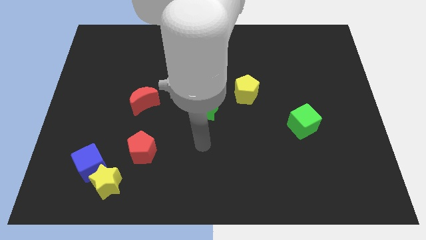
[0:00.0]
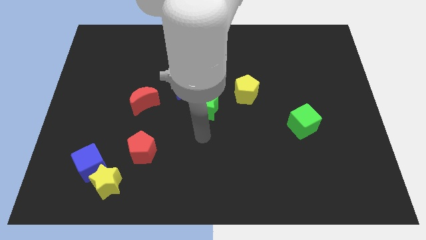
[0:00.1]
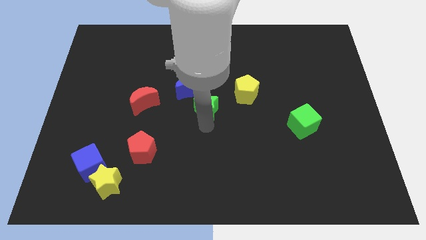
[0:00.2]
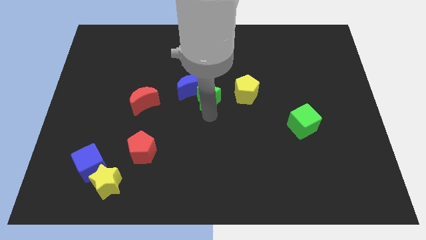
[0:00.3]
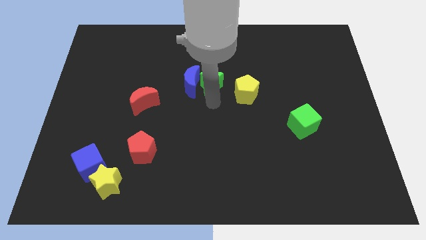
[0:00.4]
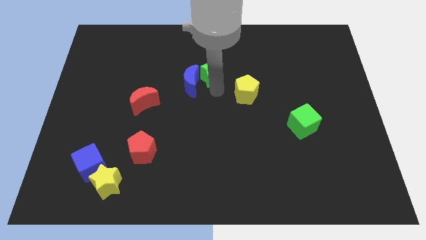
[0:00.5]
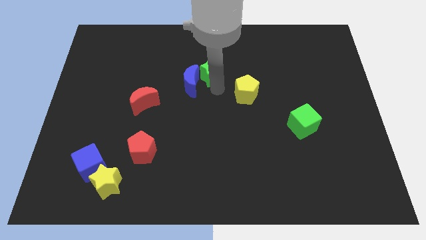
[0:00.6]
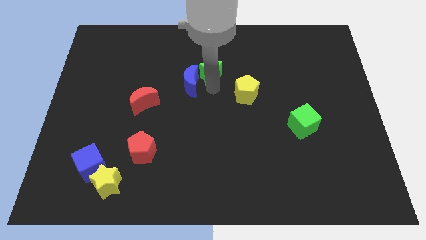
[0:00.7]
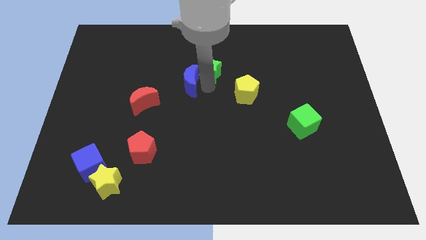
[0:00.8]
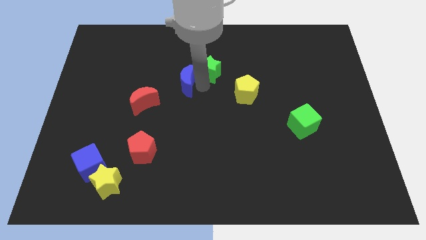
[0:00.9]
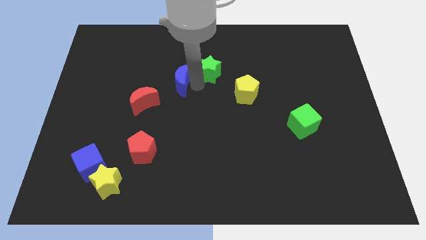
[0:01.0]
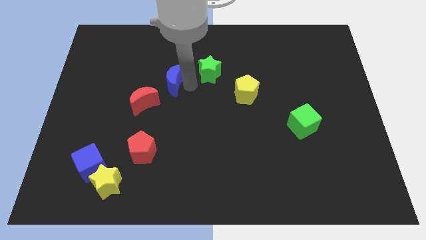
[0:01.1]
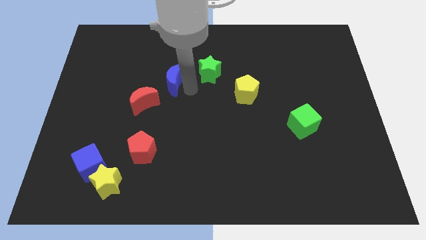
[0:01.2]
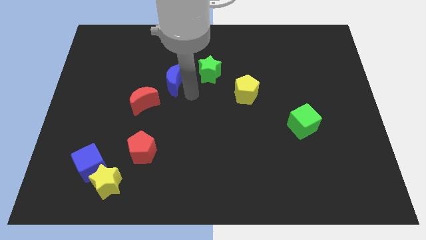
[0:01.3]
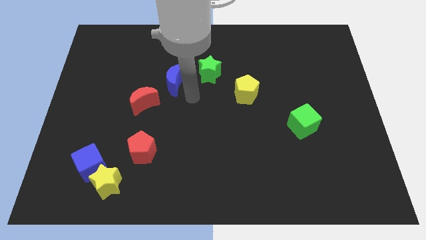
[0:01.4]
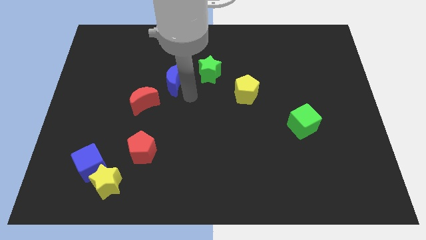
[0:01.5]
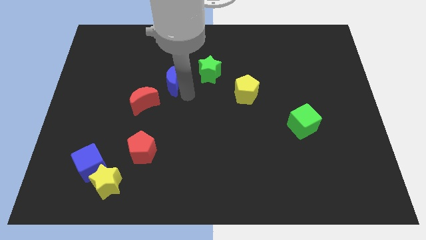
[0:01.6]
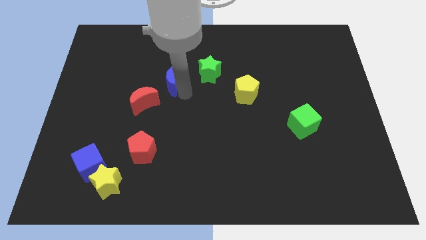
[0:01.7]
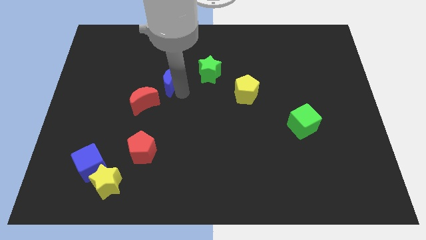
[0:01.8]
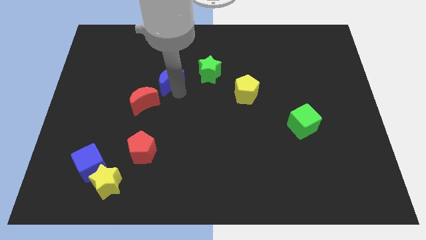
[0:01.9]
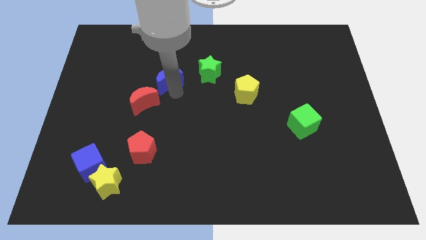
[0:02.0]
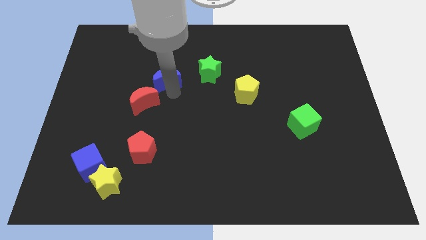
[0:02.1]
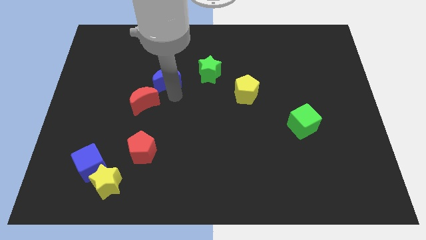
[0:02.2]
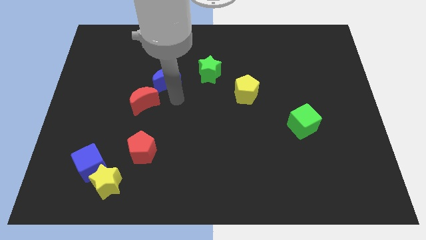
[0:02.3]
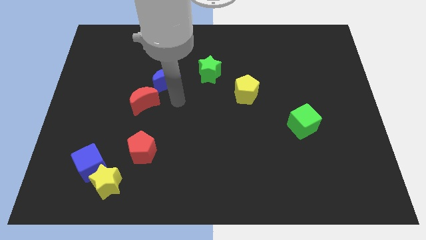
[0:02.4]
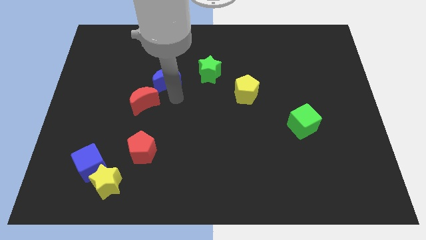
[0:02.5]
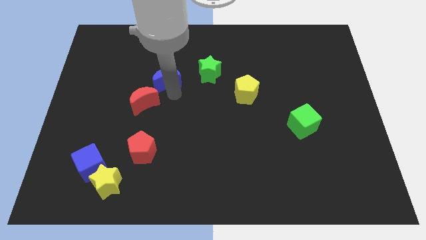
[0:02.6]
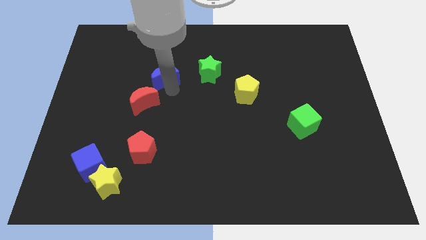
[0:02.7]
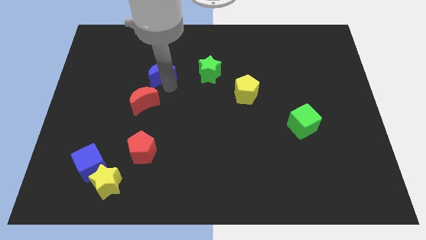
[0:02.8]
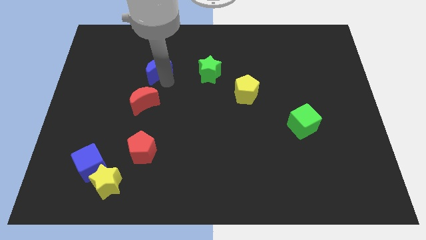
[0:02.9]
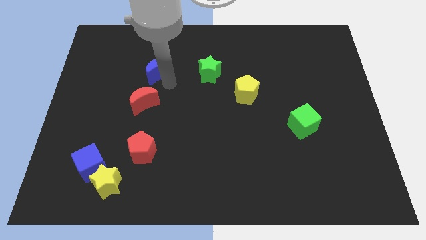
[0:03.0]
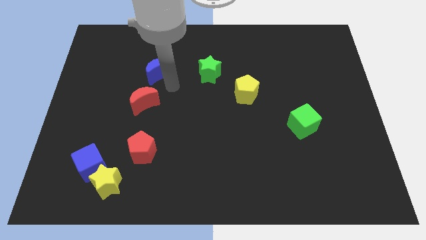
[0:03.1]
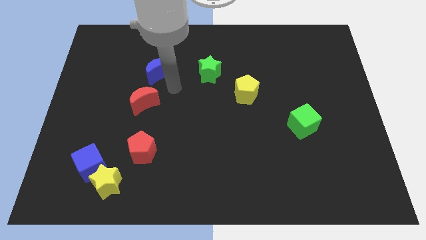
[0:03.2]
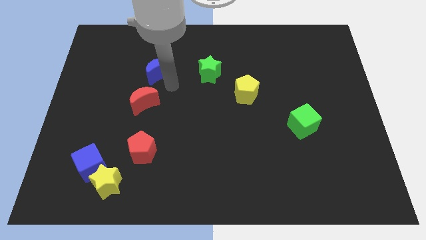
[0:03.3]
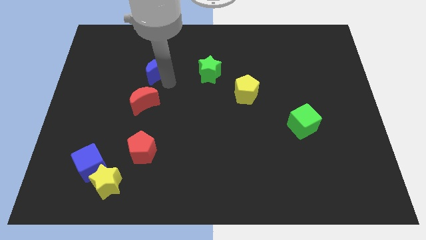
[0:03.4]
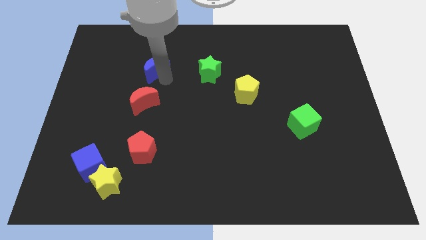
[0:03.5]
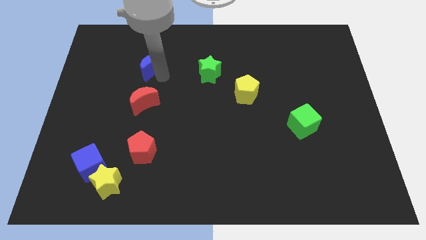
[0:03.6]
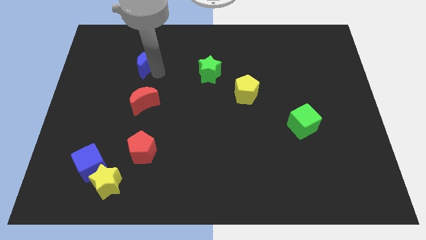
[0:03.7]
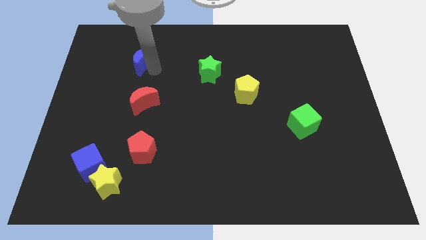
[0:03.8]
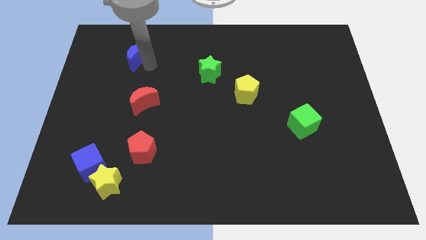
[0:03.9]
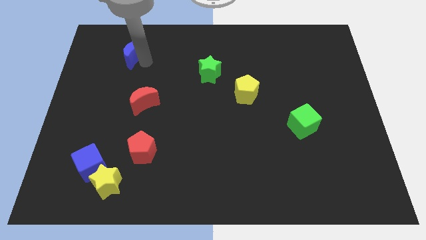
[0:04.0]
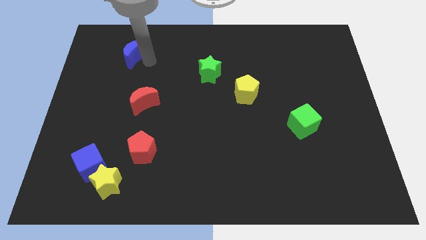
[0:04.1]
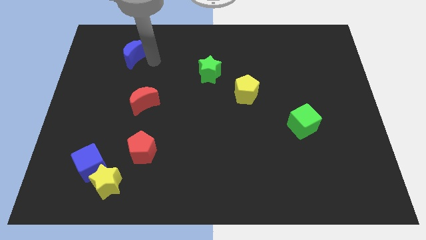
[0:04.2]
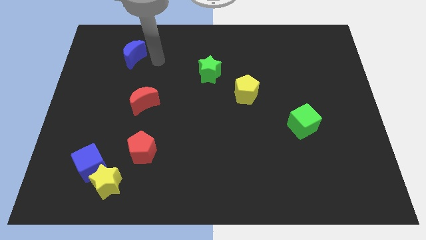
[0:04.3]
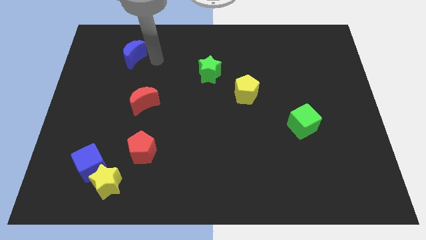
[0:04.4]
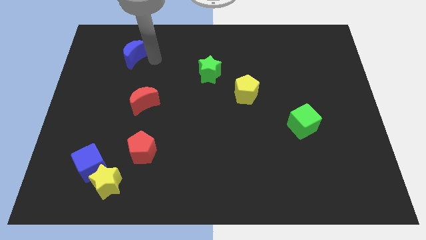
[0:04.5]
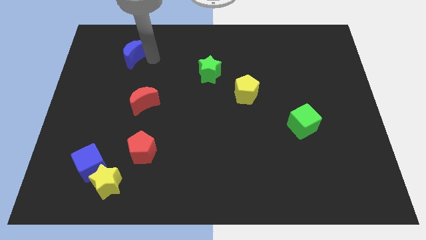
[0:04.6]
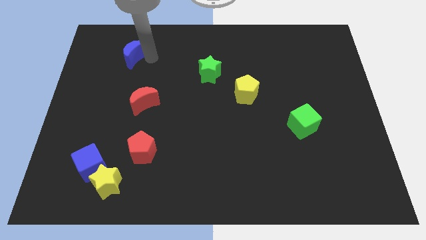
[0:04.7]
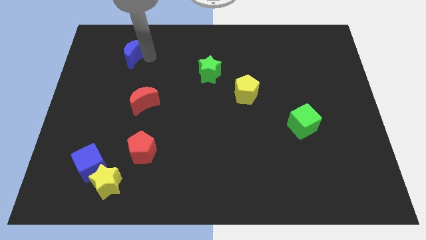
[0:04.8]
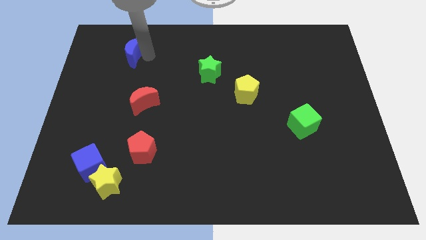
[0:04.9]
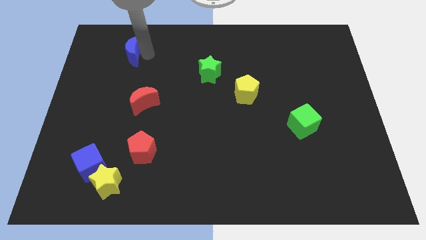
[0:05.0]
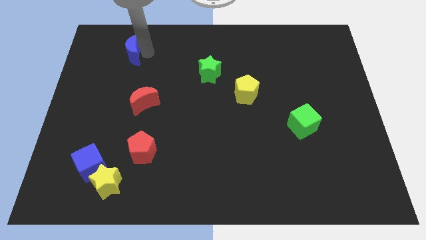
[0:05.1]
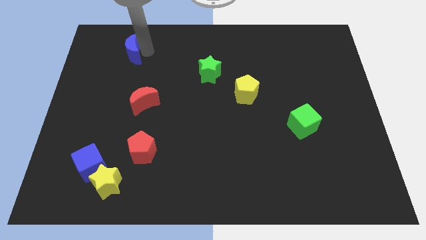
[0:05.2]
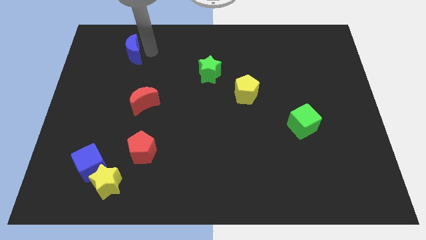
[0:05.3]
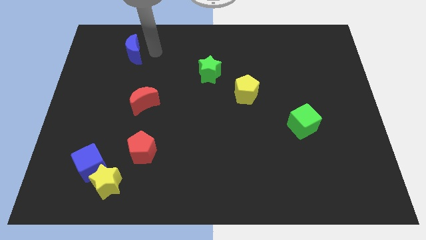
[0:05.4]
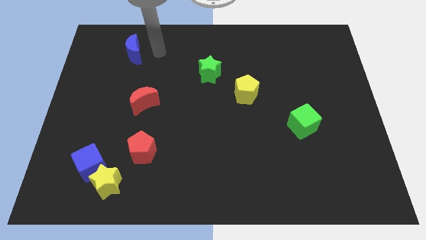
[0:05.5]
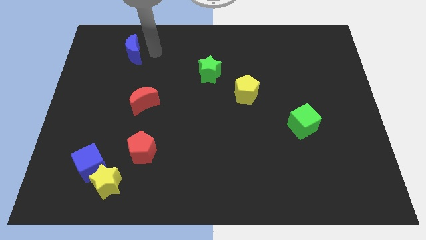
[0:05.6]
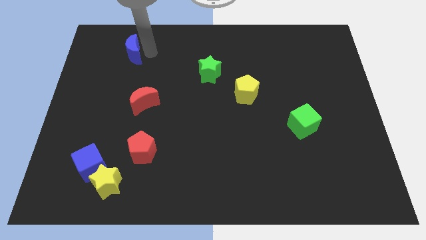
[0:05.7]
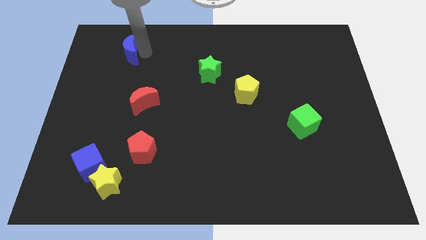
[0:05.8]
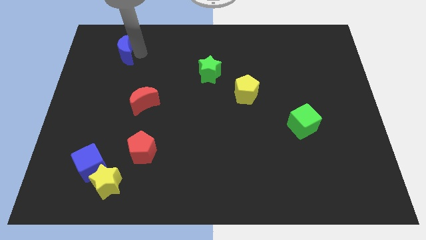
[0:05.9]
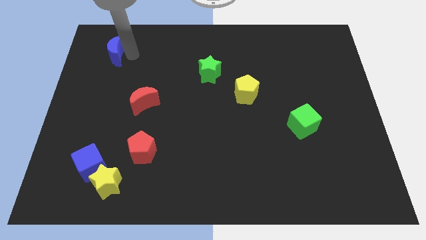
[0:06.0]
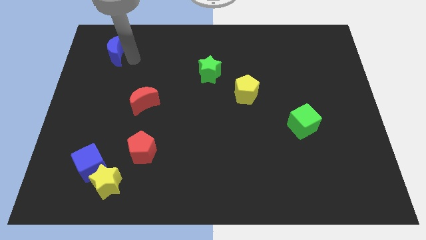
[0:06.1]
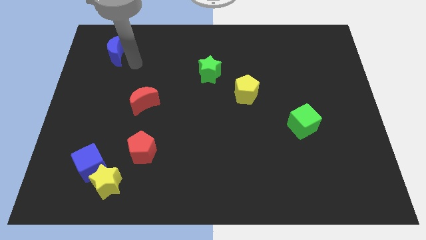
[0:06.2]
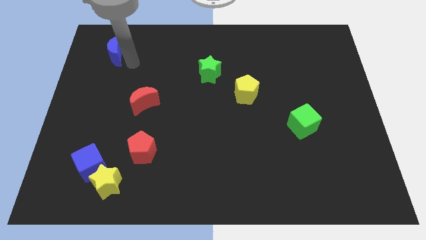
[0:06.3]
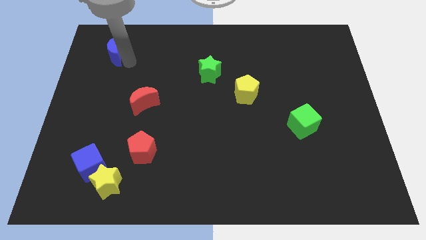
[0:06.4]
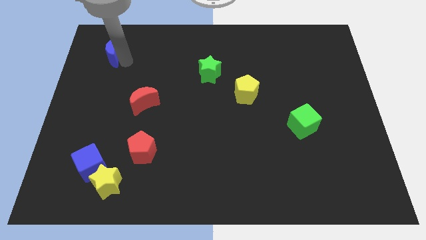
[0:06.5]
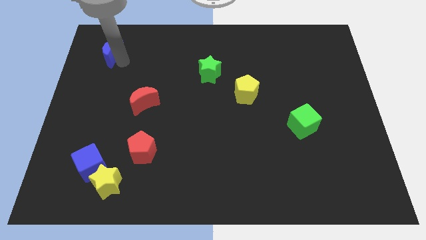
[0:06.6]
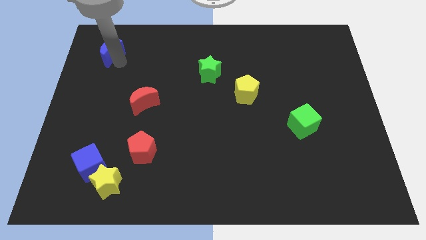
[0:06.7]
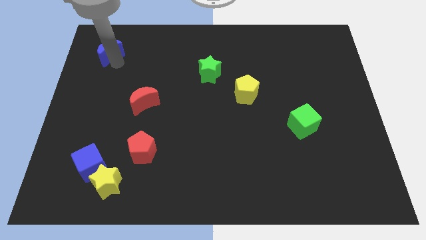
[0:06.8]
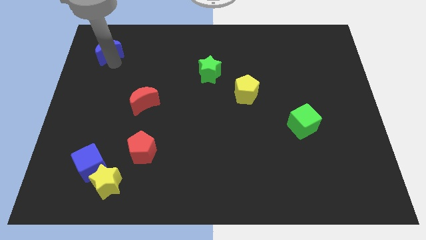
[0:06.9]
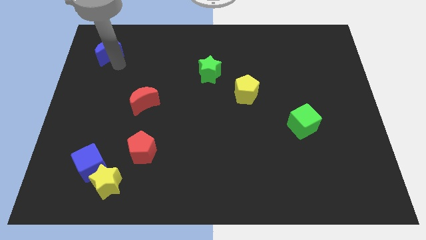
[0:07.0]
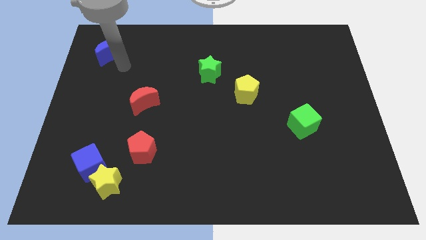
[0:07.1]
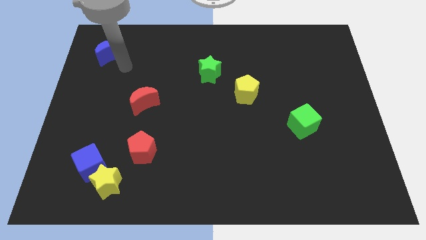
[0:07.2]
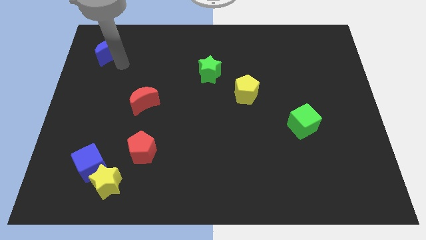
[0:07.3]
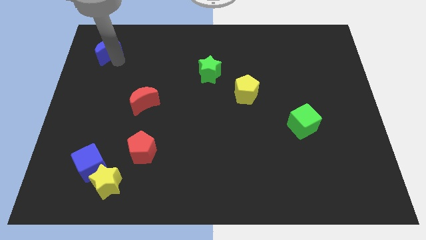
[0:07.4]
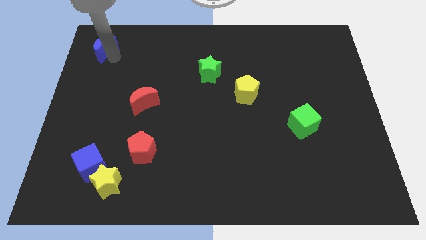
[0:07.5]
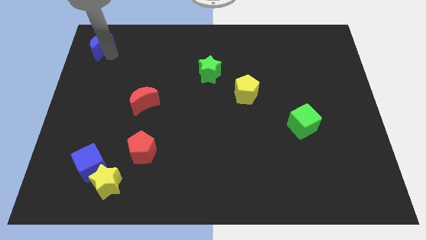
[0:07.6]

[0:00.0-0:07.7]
put the blue moon to the top left of the board
